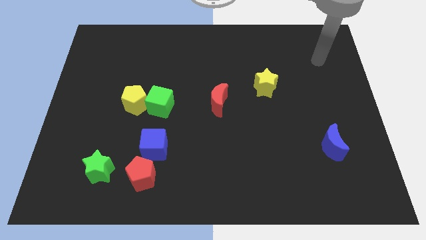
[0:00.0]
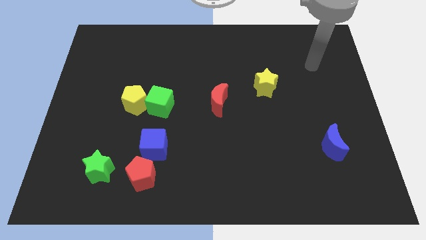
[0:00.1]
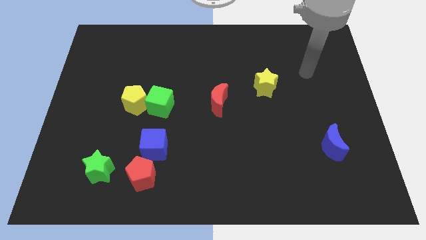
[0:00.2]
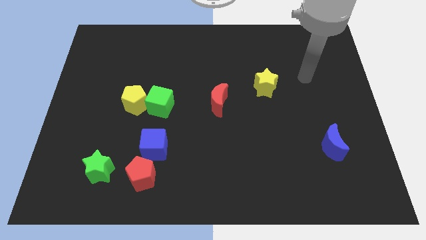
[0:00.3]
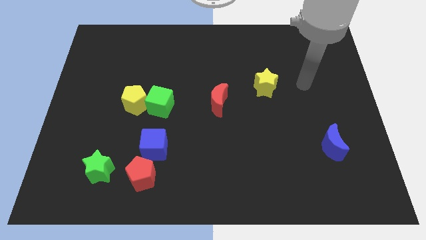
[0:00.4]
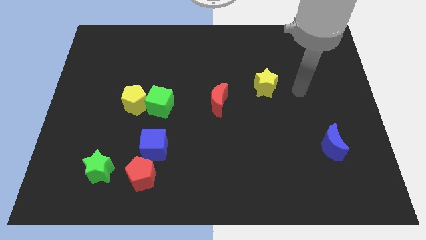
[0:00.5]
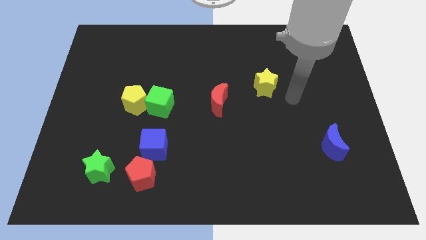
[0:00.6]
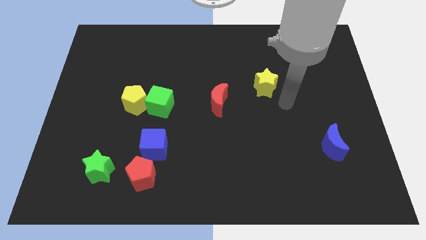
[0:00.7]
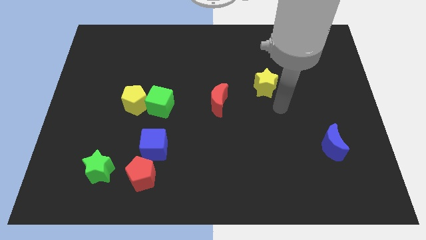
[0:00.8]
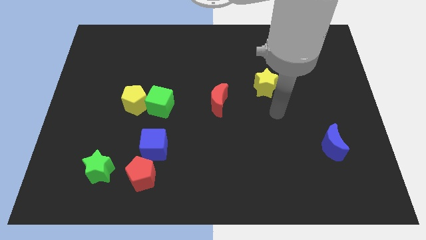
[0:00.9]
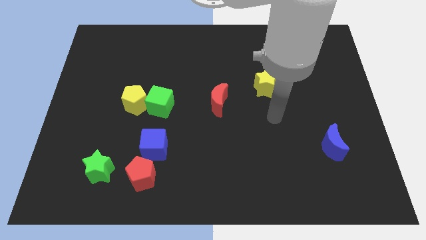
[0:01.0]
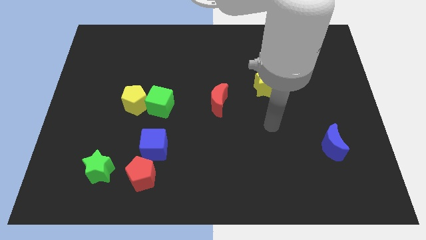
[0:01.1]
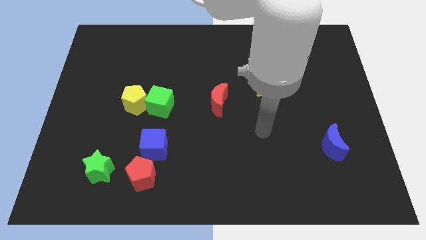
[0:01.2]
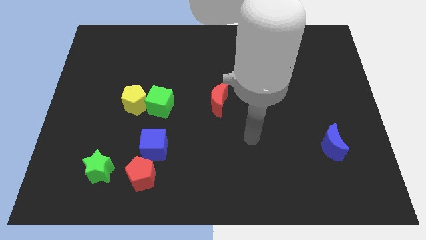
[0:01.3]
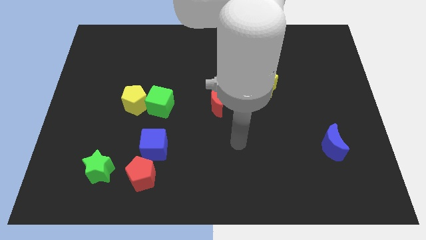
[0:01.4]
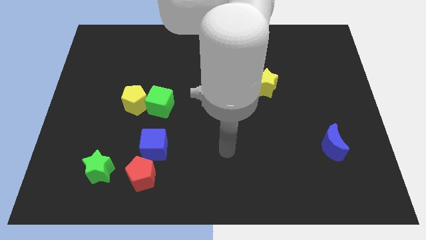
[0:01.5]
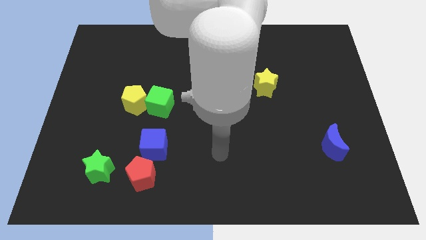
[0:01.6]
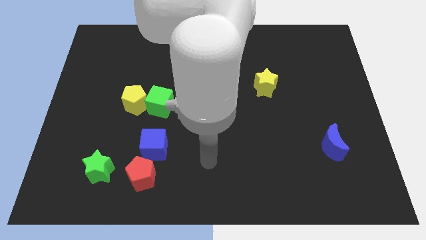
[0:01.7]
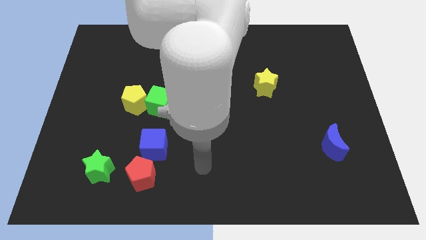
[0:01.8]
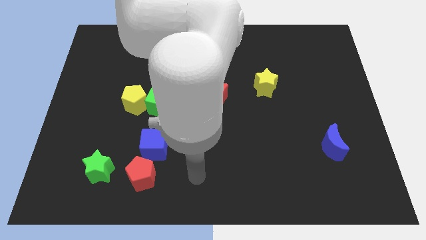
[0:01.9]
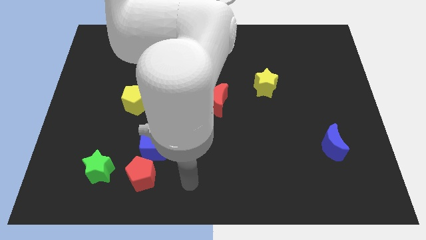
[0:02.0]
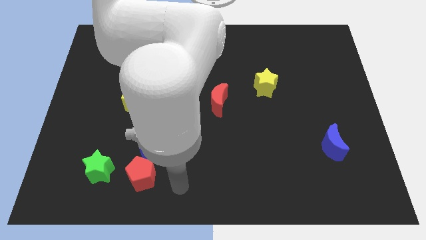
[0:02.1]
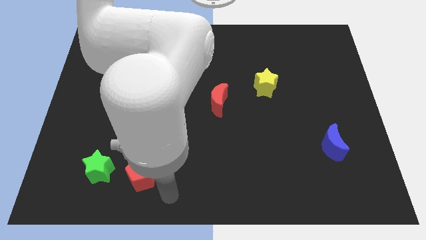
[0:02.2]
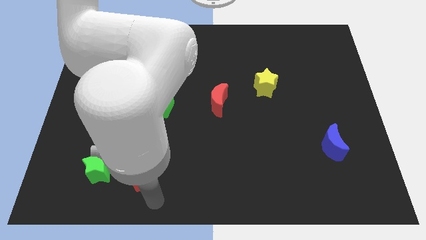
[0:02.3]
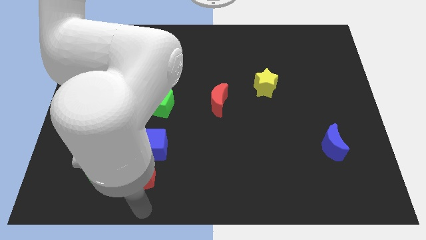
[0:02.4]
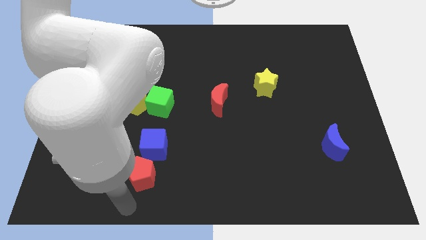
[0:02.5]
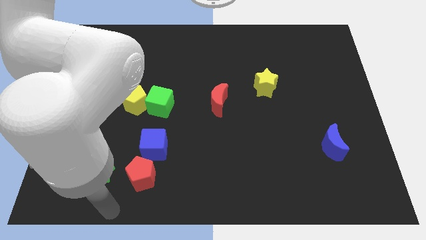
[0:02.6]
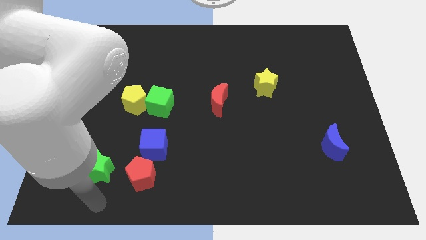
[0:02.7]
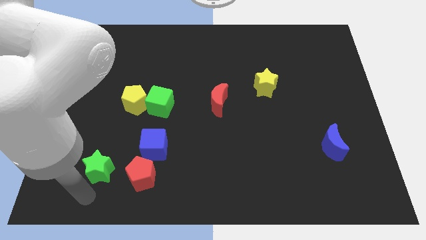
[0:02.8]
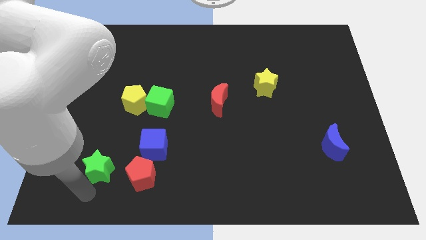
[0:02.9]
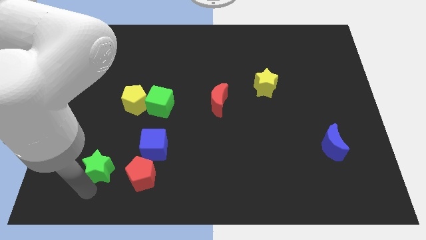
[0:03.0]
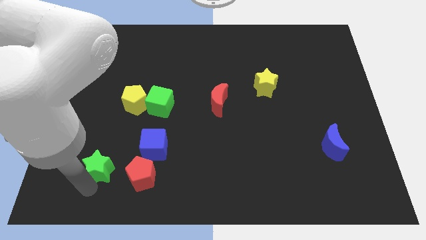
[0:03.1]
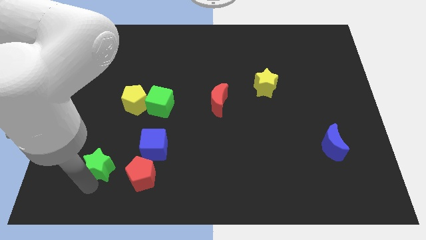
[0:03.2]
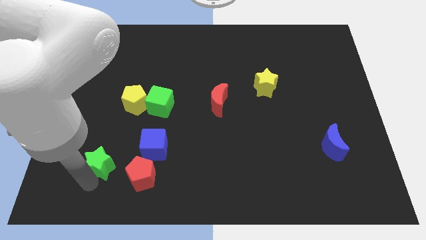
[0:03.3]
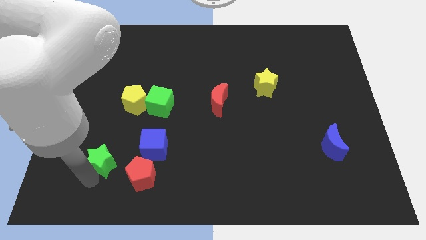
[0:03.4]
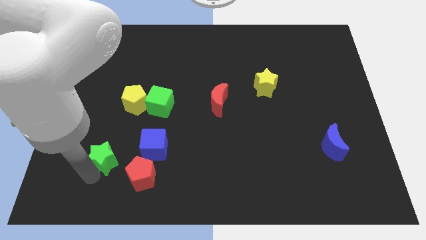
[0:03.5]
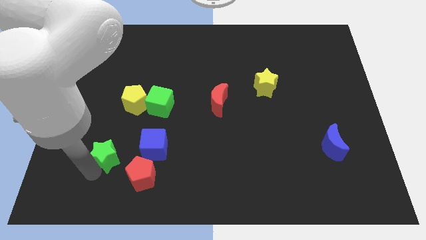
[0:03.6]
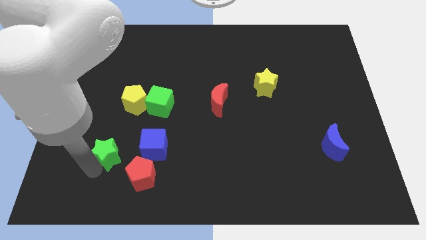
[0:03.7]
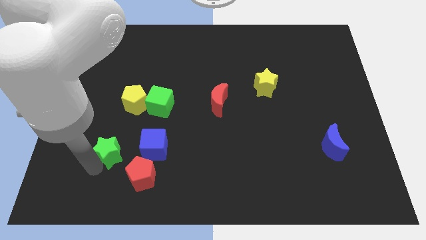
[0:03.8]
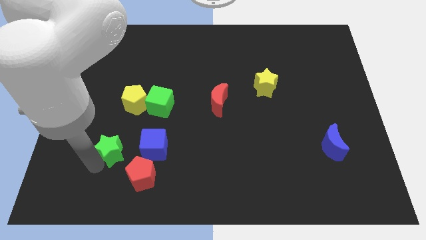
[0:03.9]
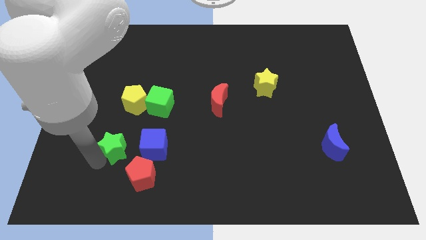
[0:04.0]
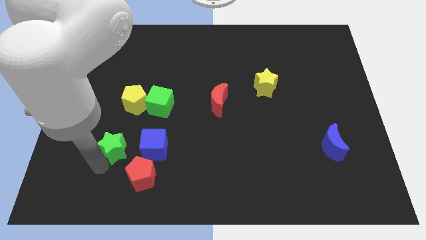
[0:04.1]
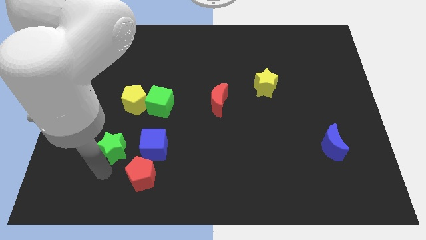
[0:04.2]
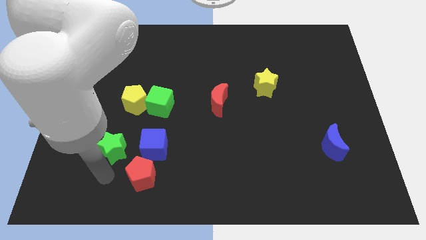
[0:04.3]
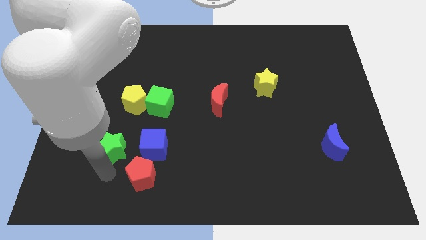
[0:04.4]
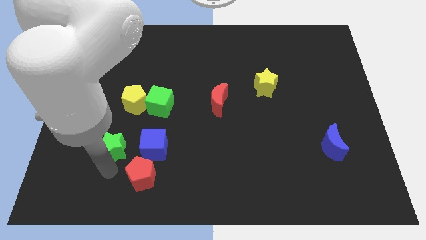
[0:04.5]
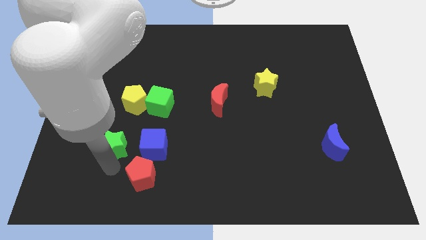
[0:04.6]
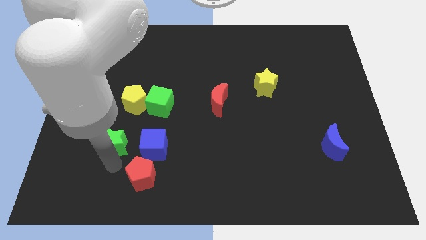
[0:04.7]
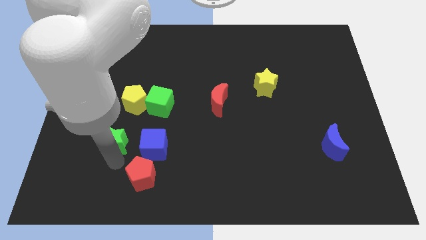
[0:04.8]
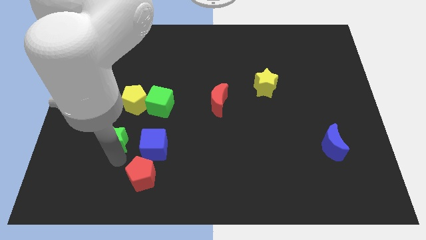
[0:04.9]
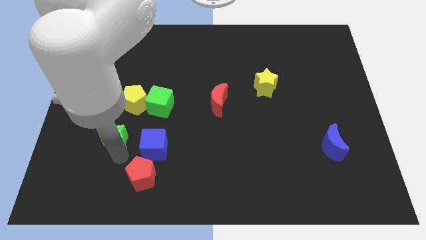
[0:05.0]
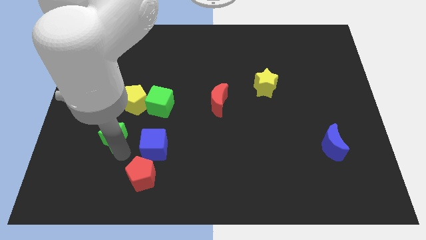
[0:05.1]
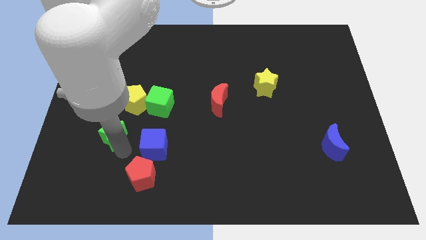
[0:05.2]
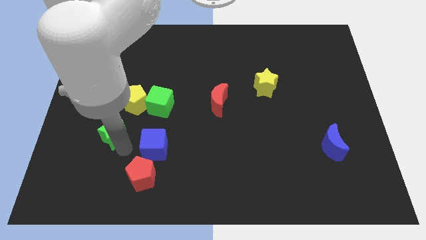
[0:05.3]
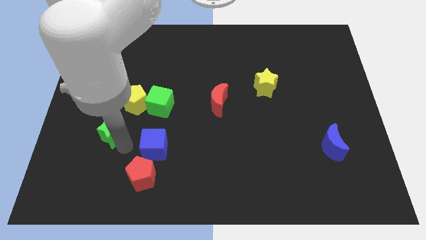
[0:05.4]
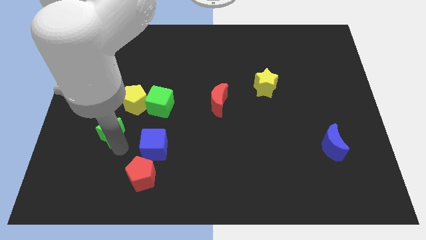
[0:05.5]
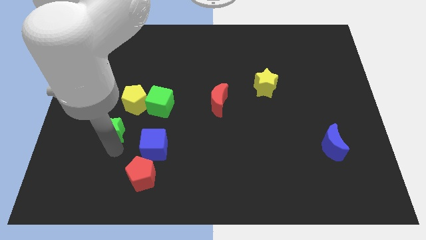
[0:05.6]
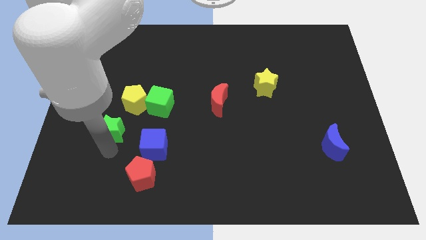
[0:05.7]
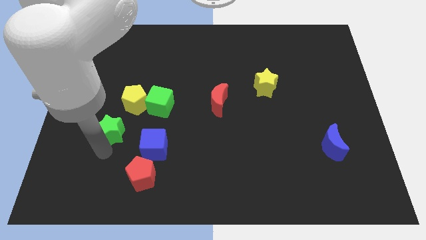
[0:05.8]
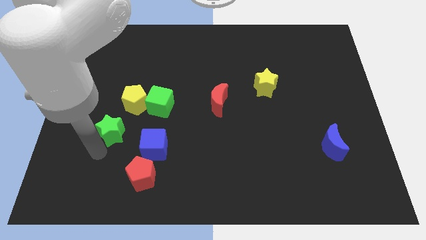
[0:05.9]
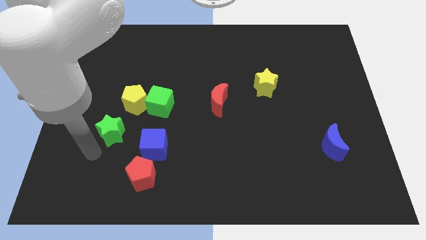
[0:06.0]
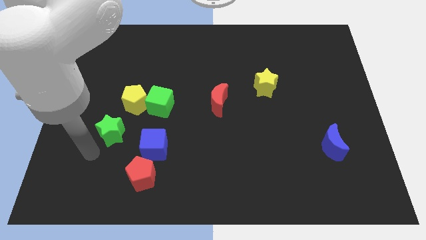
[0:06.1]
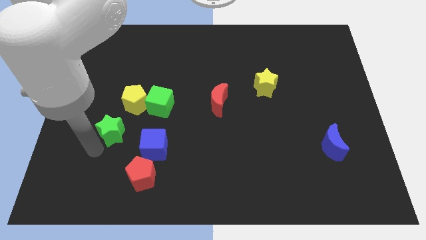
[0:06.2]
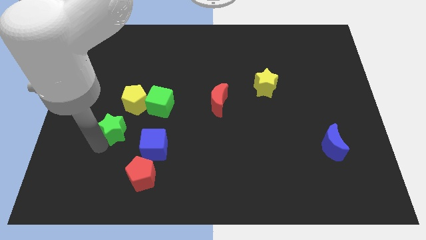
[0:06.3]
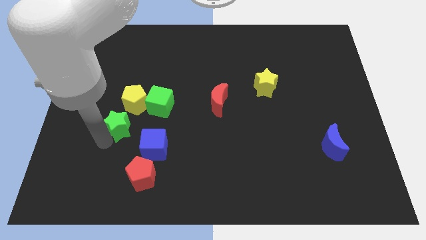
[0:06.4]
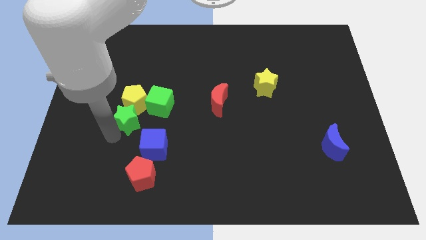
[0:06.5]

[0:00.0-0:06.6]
move the green star to the yellow pentagon
